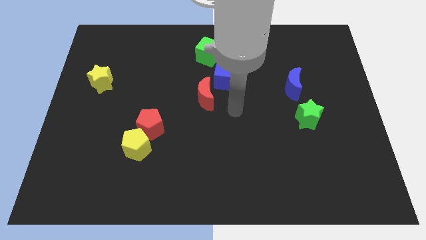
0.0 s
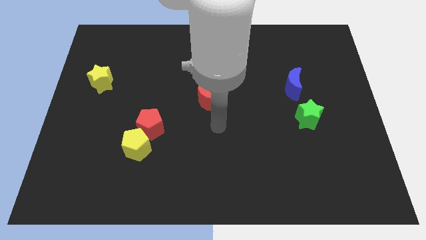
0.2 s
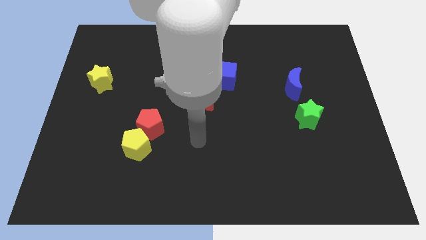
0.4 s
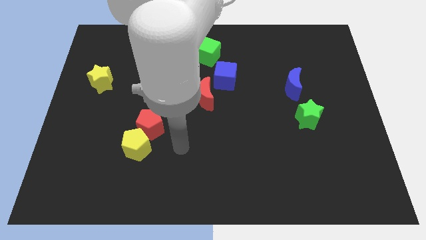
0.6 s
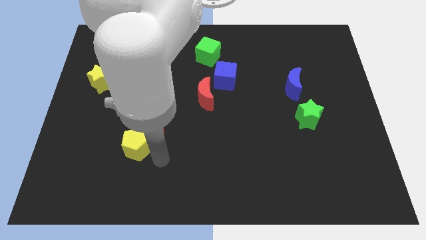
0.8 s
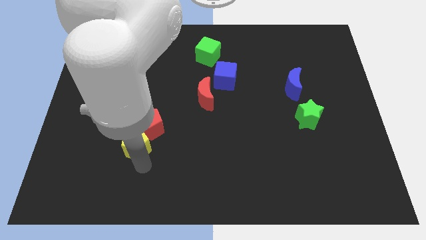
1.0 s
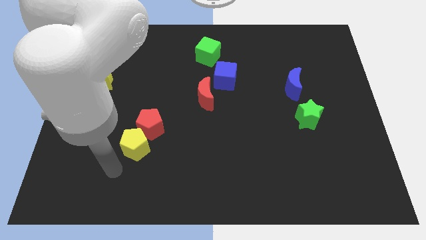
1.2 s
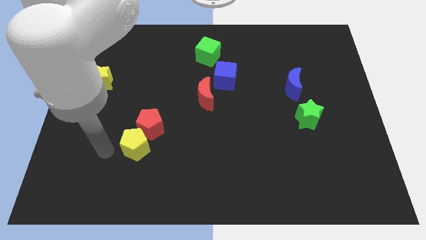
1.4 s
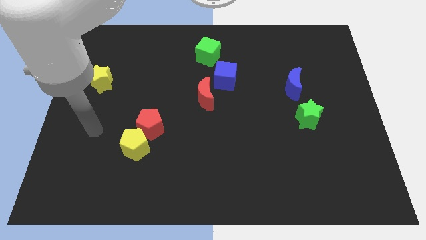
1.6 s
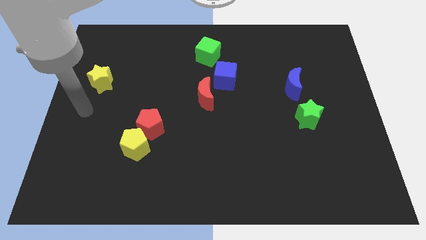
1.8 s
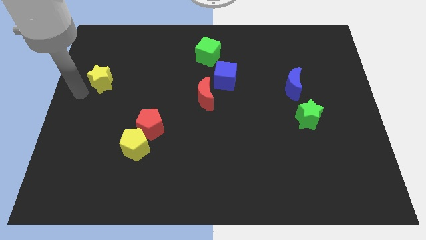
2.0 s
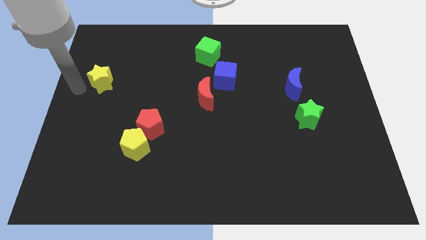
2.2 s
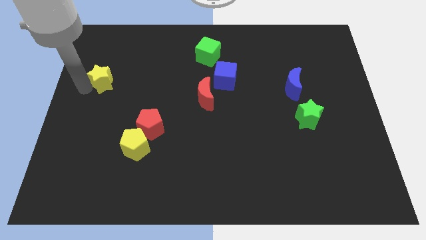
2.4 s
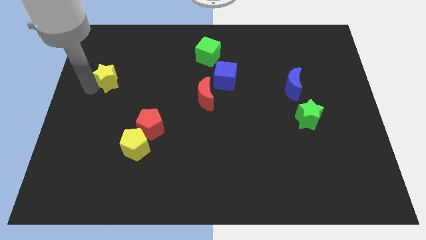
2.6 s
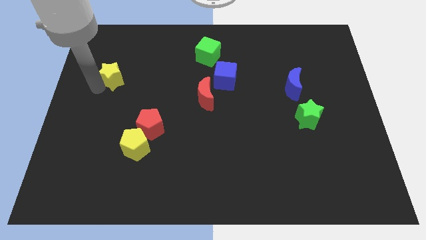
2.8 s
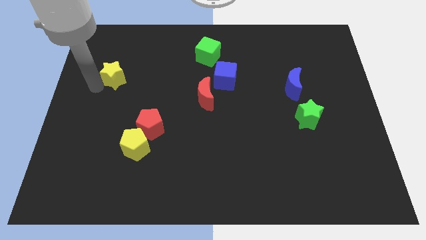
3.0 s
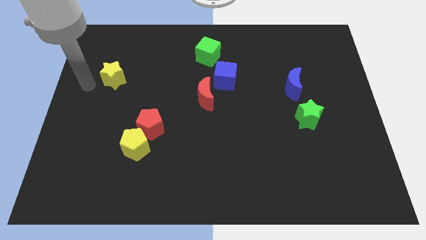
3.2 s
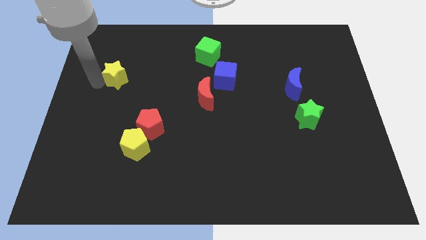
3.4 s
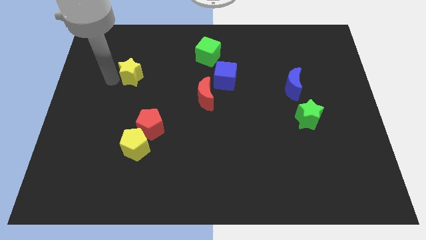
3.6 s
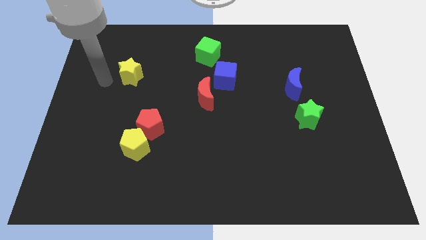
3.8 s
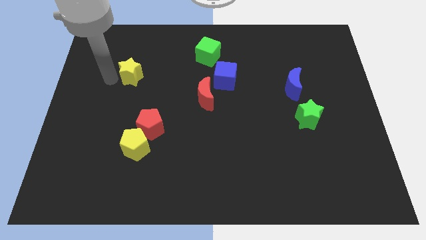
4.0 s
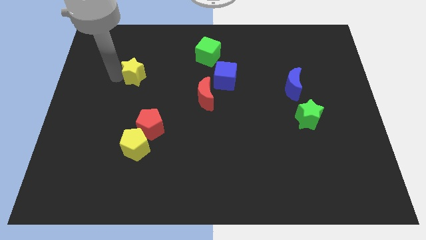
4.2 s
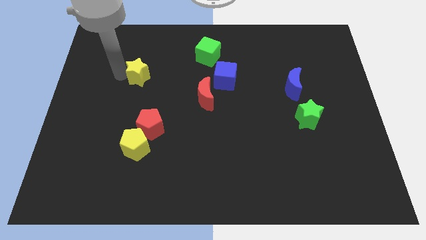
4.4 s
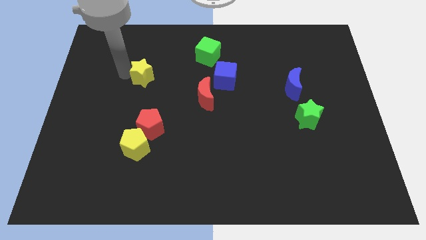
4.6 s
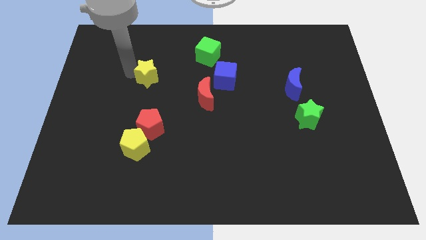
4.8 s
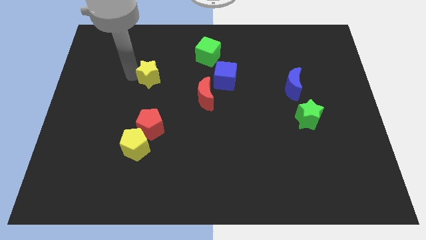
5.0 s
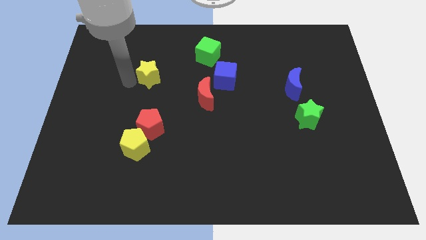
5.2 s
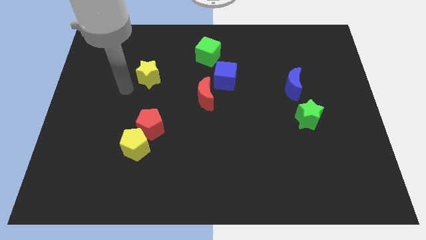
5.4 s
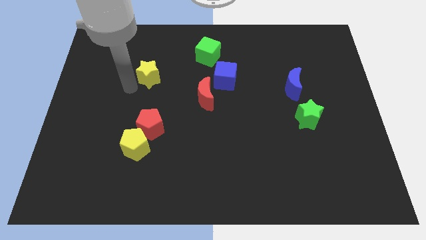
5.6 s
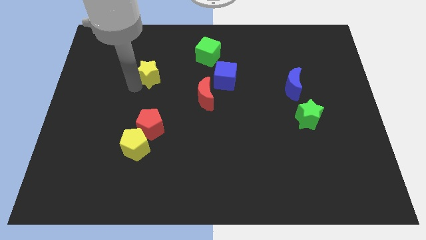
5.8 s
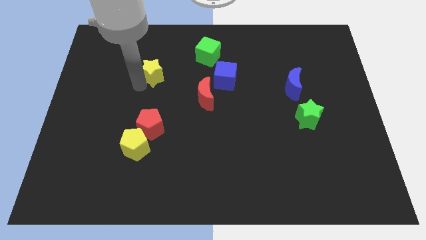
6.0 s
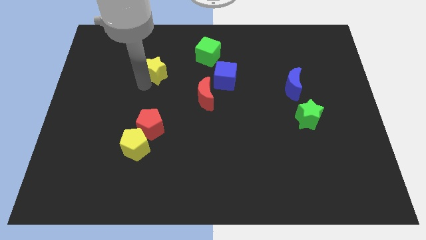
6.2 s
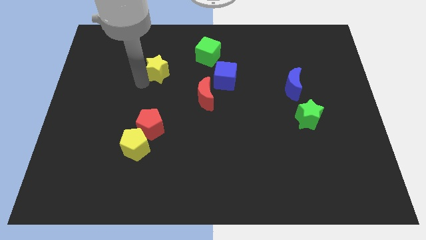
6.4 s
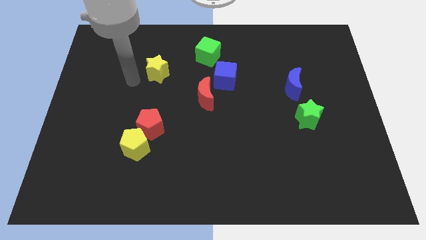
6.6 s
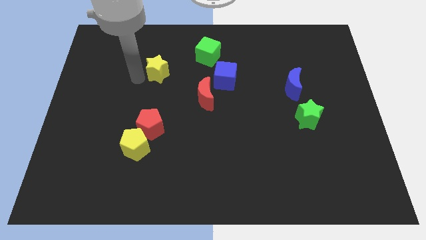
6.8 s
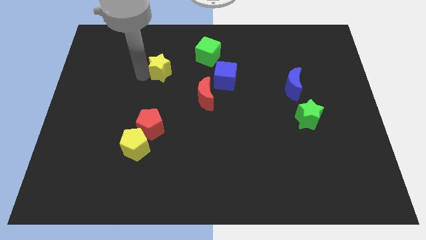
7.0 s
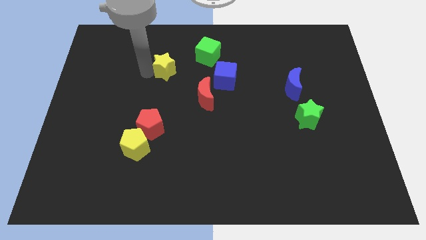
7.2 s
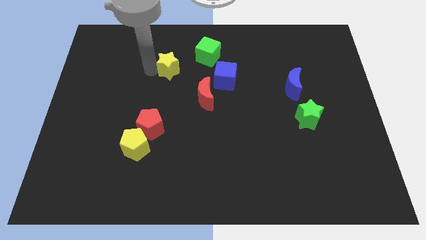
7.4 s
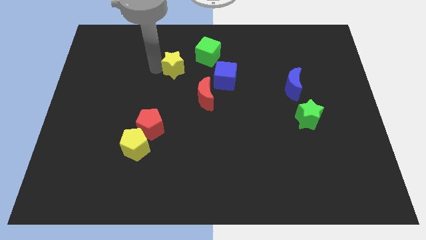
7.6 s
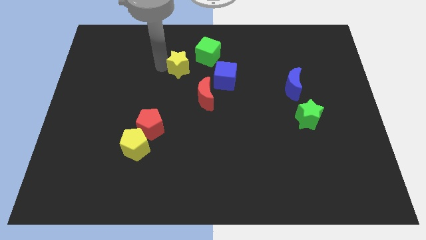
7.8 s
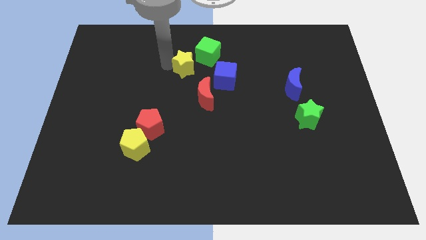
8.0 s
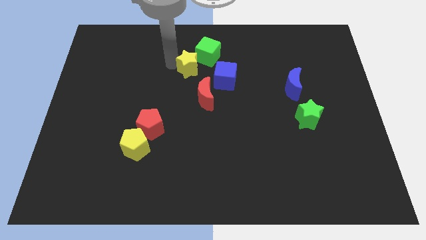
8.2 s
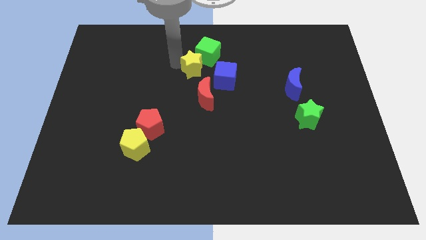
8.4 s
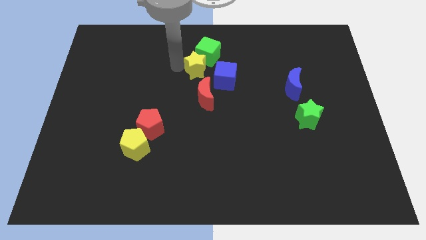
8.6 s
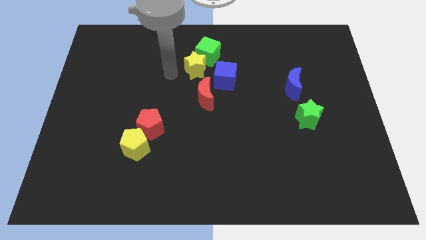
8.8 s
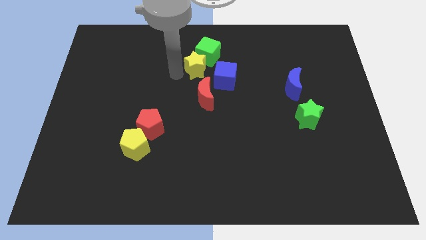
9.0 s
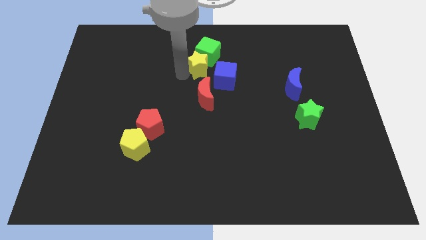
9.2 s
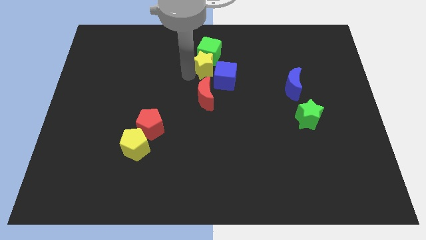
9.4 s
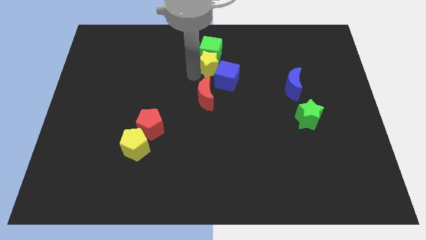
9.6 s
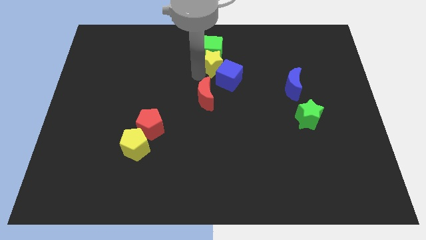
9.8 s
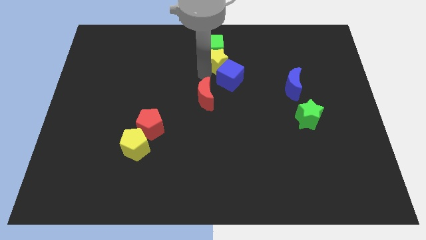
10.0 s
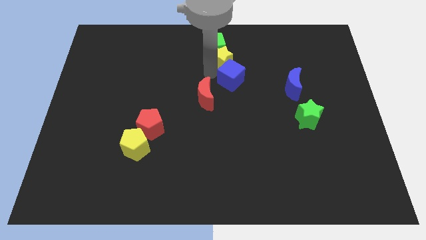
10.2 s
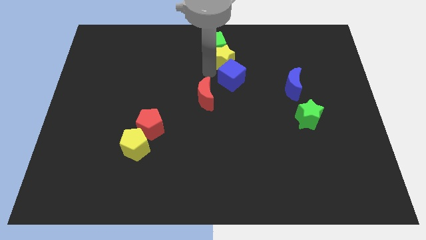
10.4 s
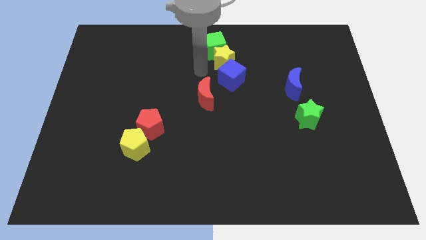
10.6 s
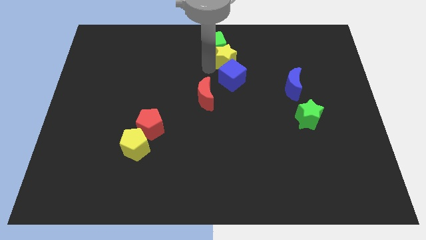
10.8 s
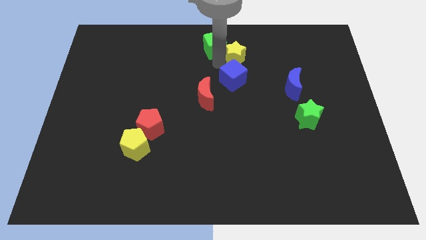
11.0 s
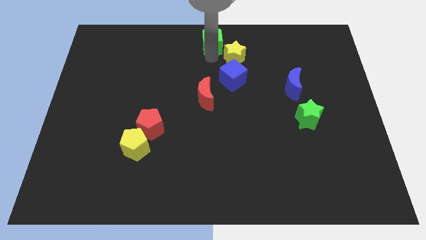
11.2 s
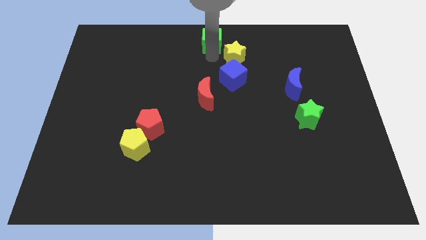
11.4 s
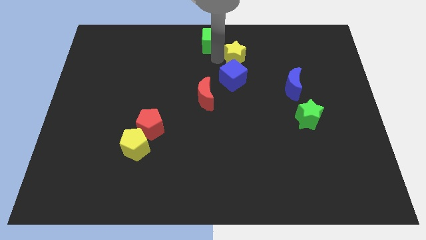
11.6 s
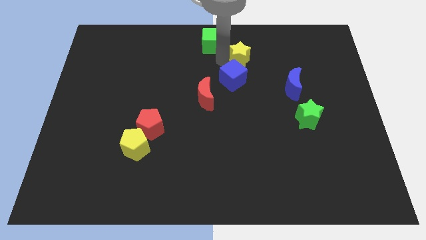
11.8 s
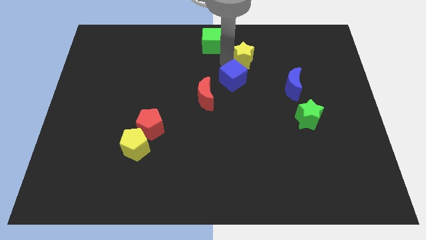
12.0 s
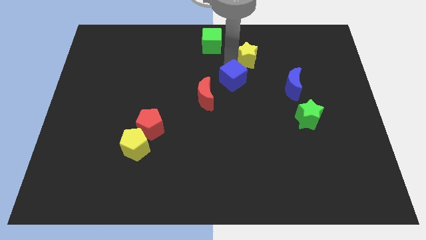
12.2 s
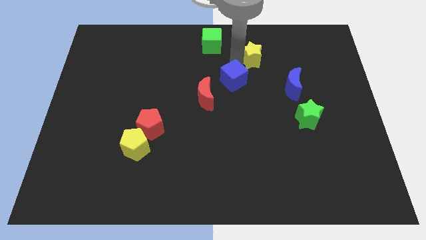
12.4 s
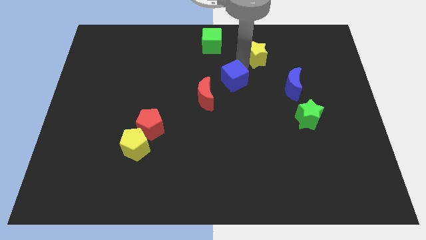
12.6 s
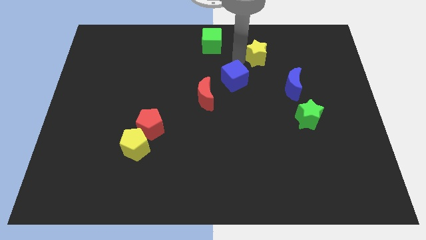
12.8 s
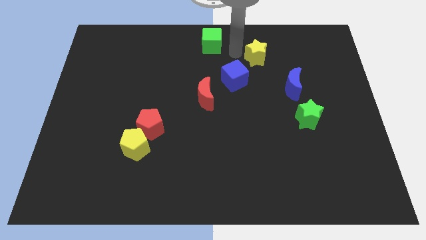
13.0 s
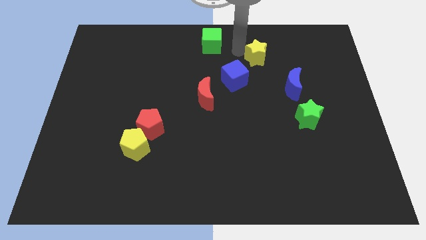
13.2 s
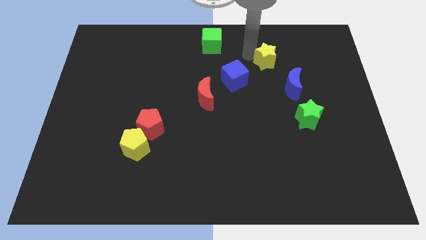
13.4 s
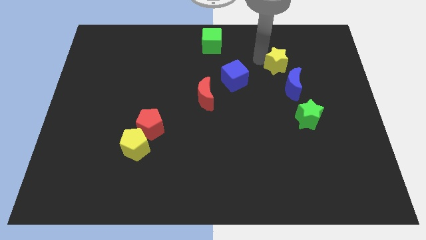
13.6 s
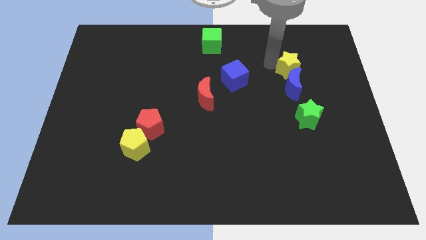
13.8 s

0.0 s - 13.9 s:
move the yellow star to the top right side of the blue moon

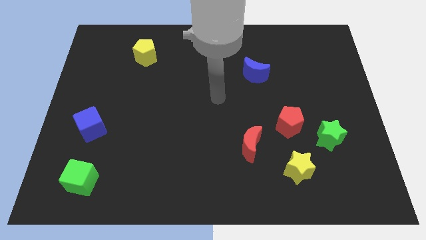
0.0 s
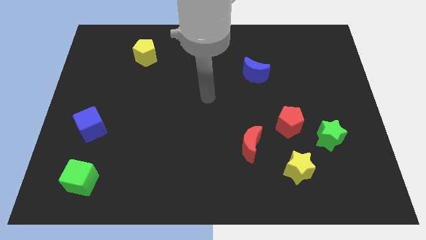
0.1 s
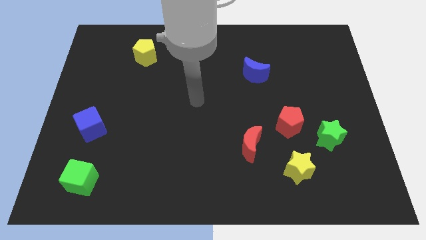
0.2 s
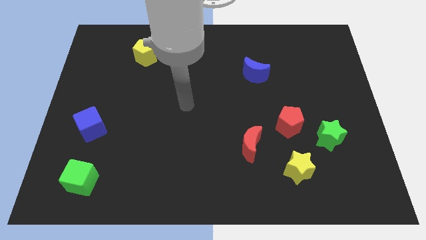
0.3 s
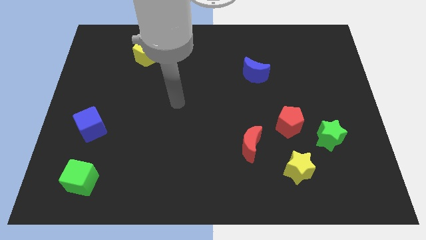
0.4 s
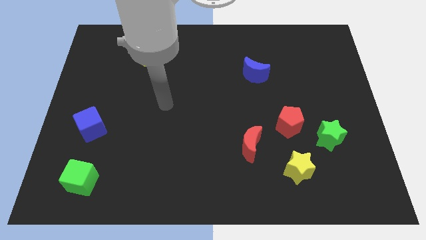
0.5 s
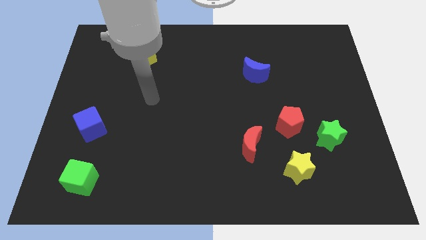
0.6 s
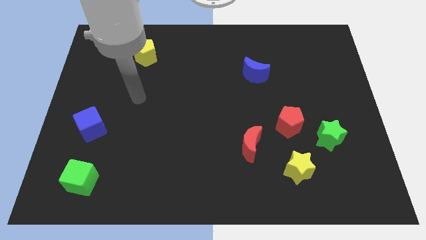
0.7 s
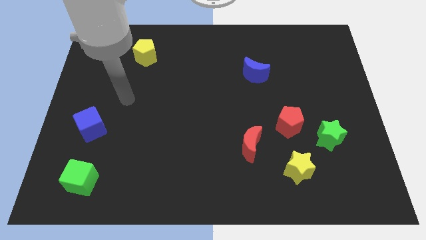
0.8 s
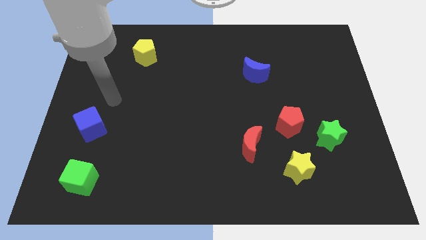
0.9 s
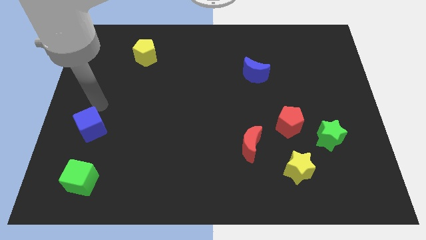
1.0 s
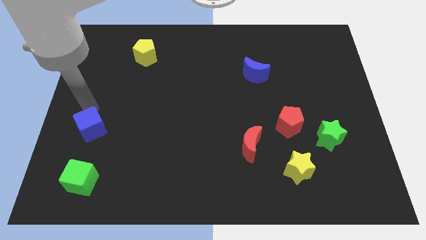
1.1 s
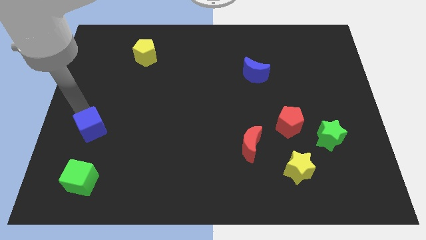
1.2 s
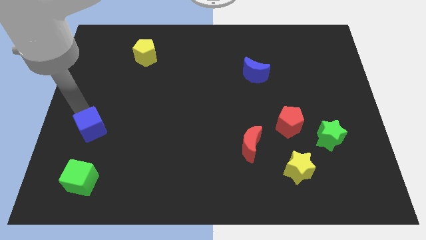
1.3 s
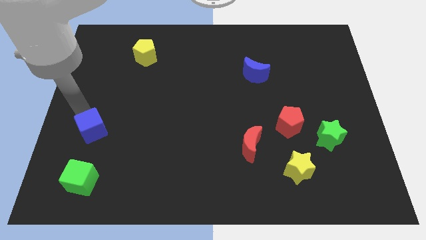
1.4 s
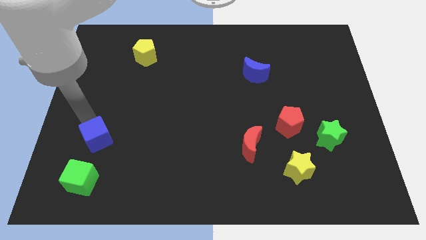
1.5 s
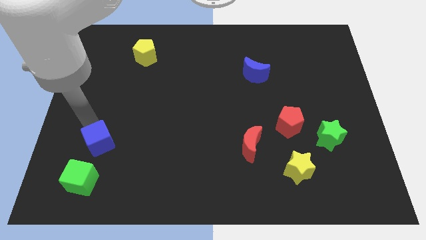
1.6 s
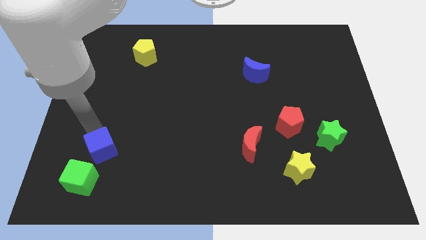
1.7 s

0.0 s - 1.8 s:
slide the blue cube to the top right of the green cube
